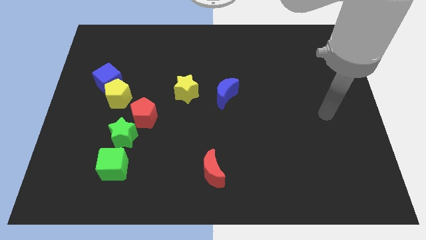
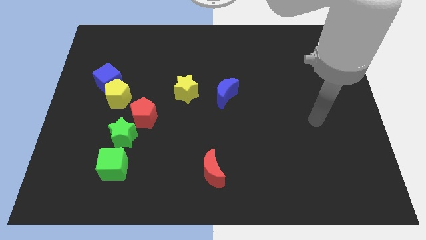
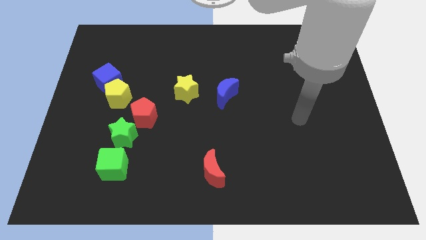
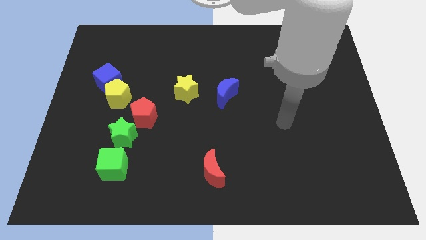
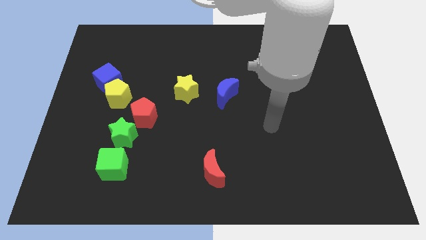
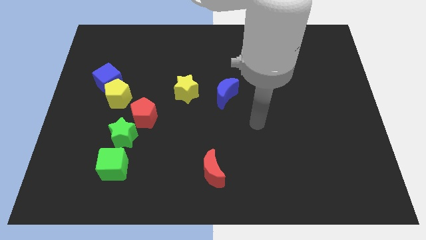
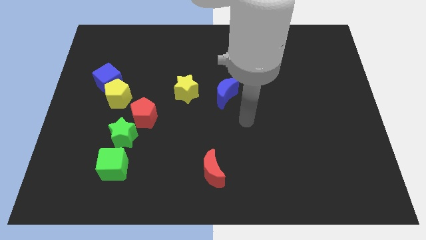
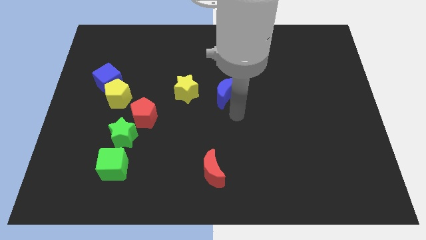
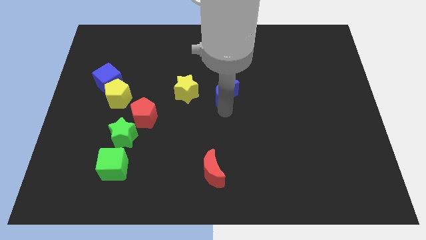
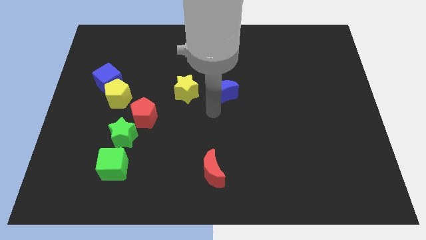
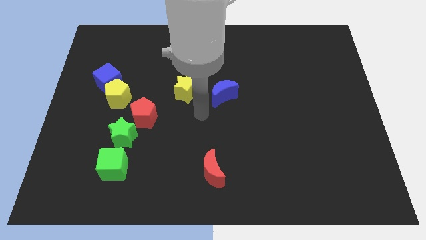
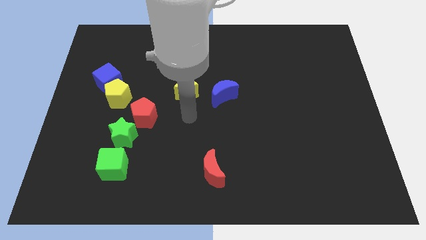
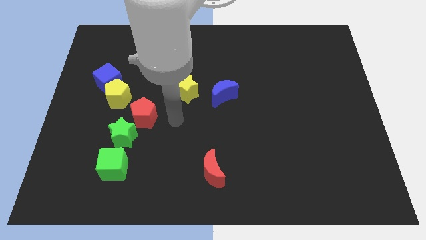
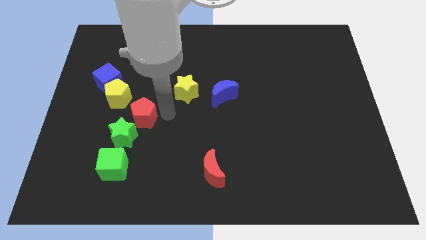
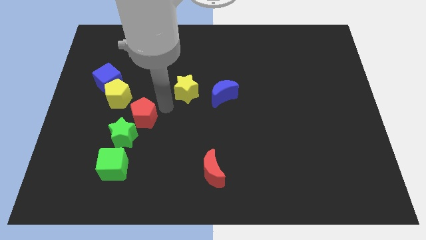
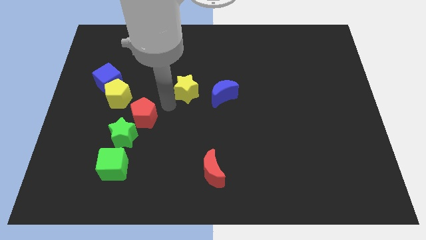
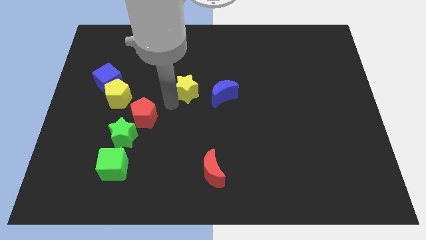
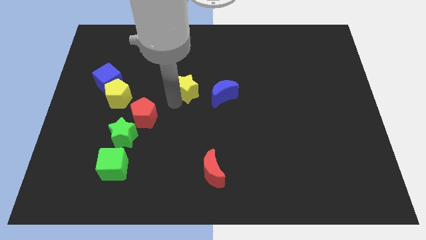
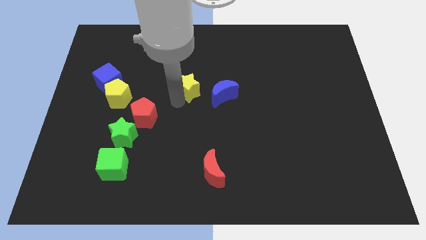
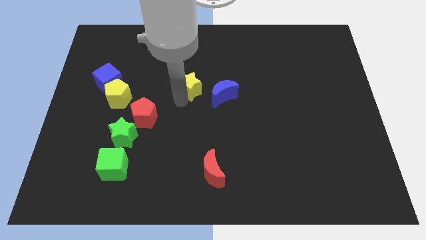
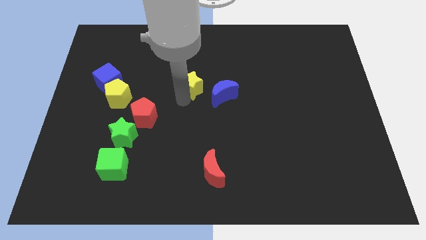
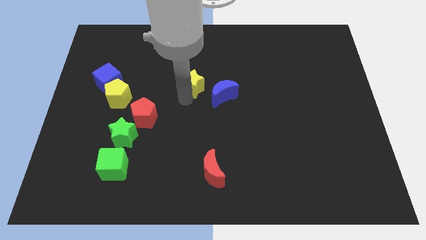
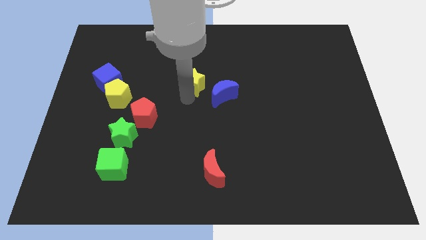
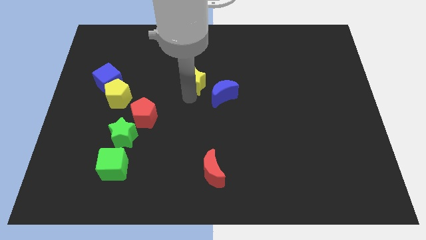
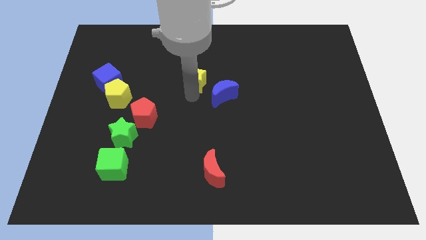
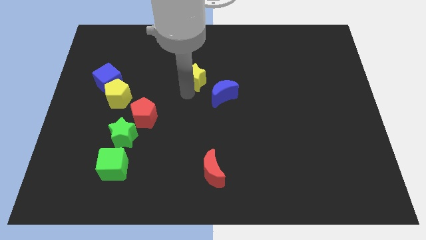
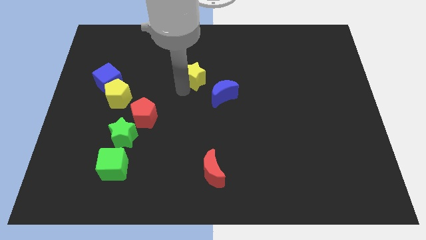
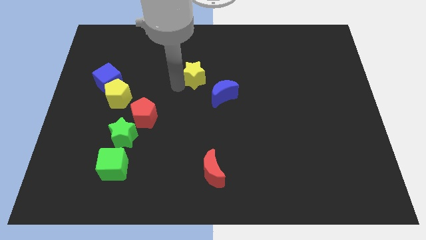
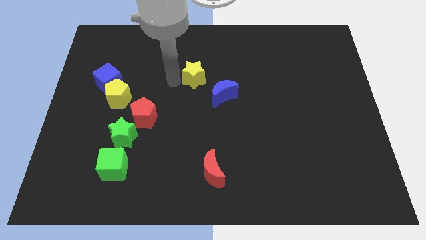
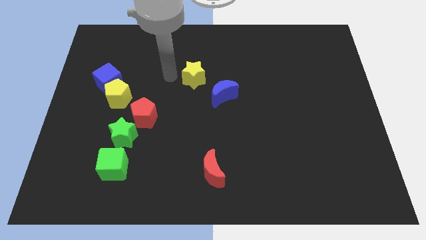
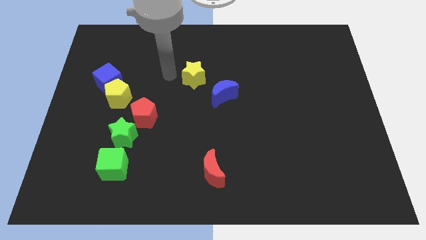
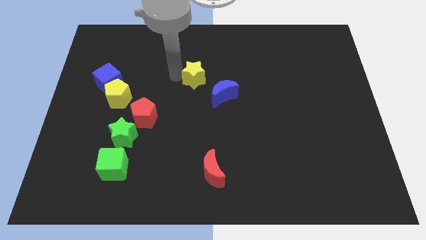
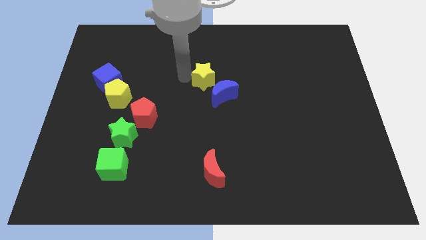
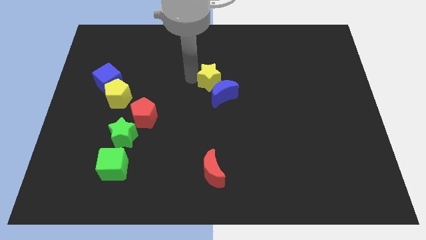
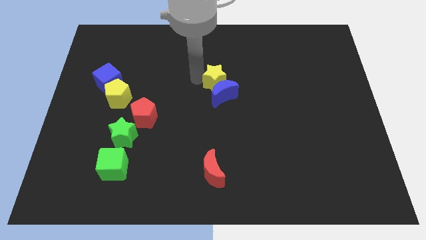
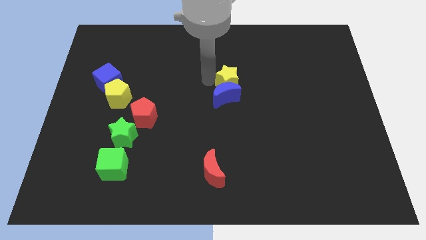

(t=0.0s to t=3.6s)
move the yellow star to the right a bit

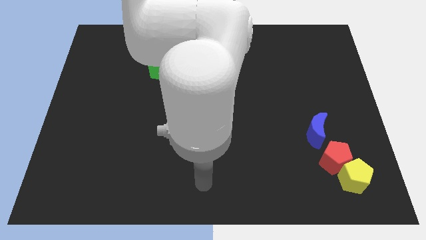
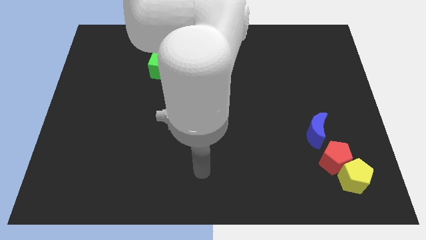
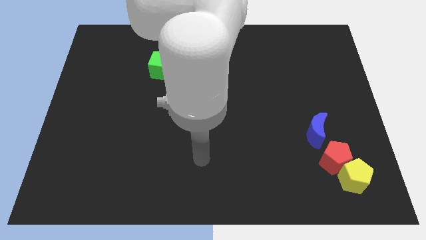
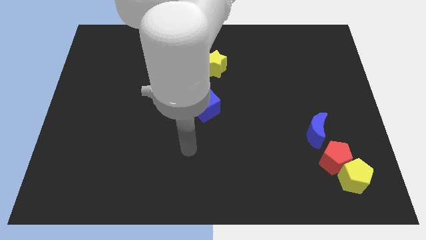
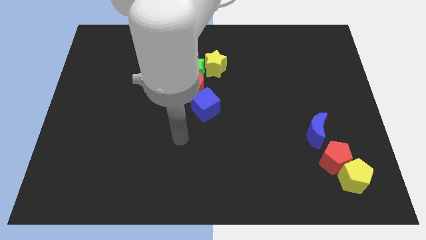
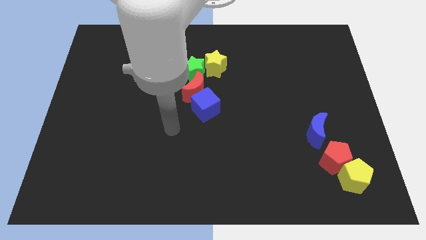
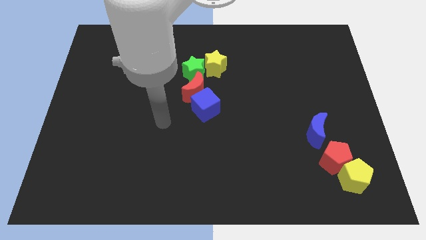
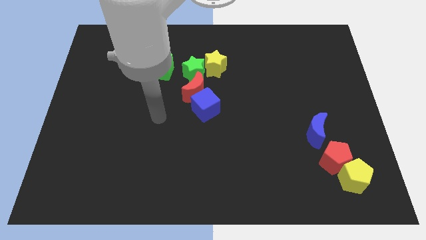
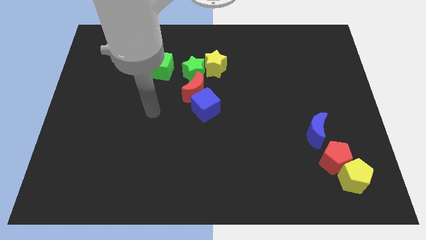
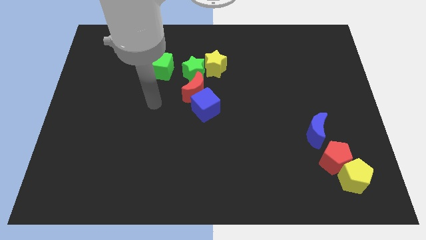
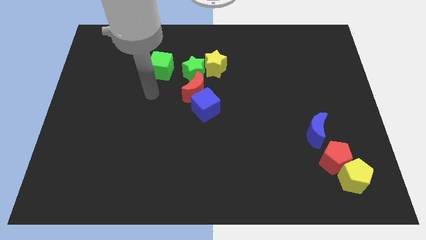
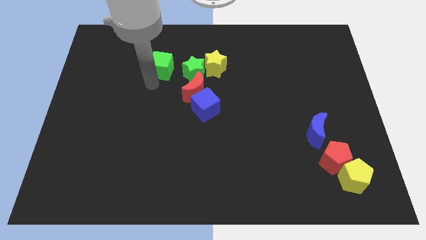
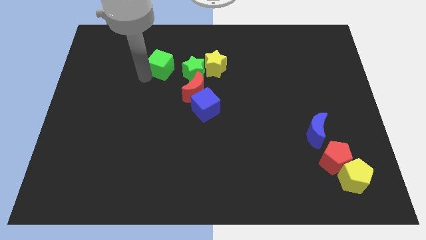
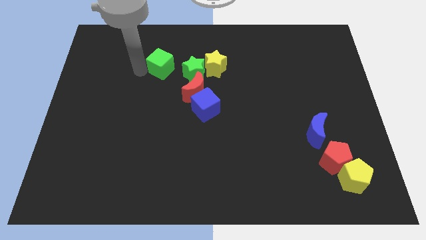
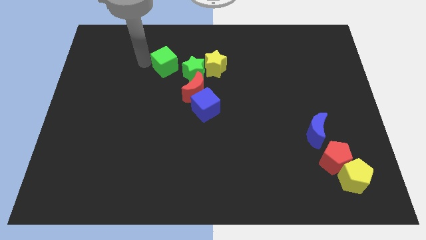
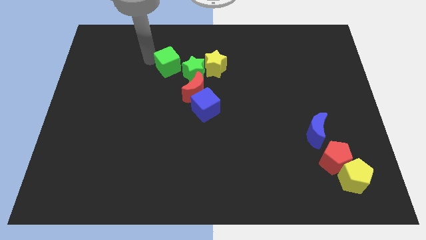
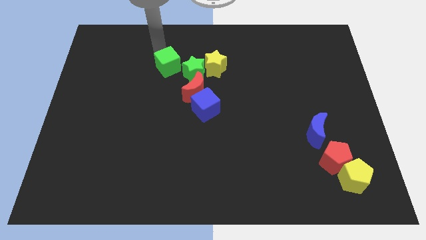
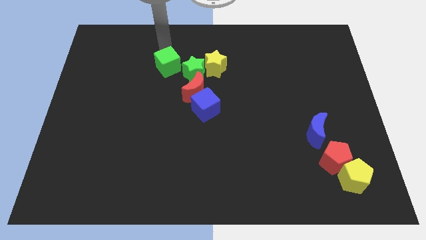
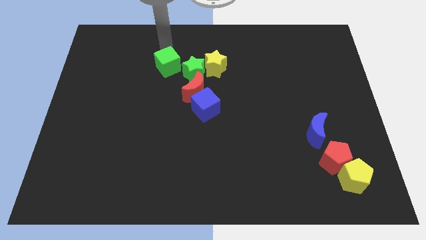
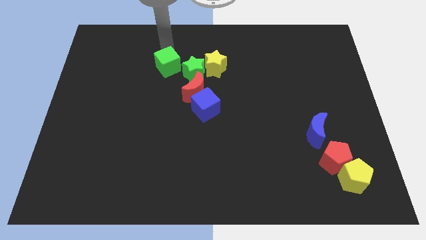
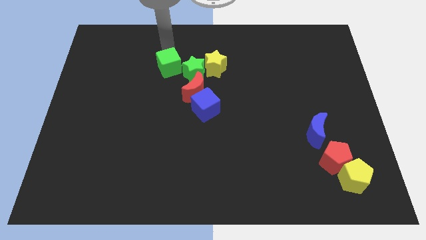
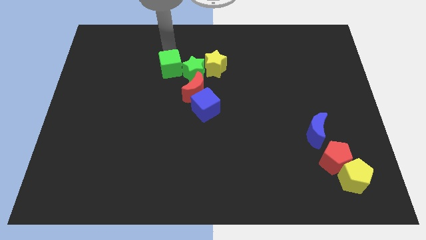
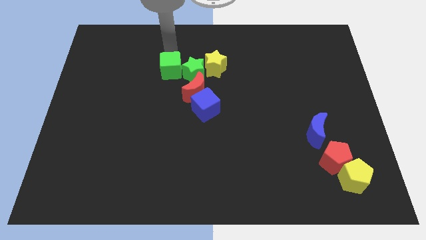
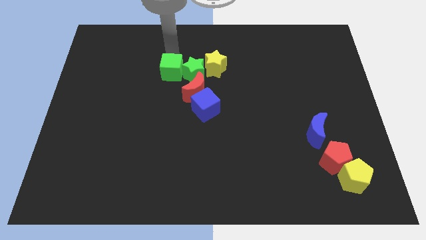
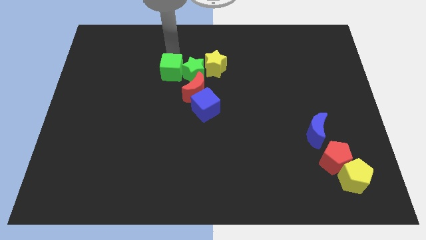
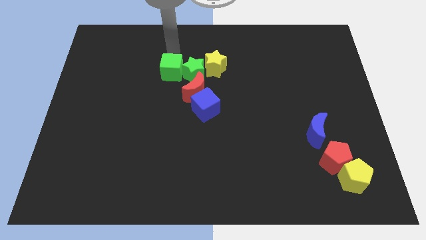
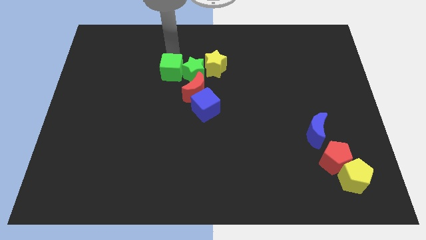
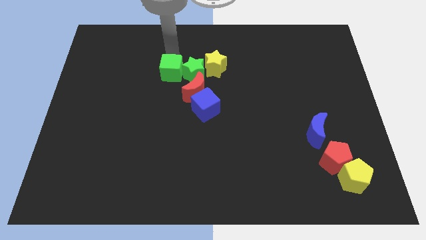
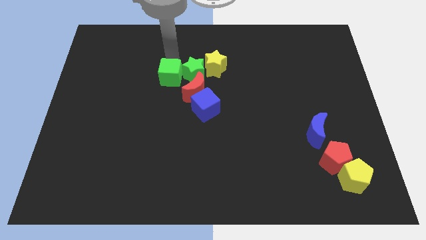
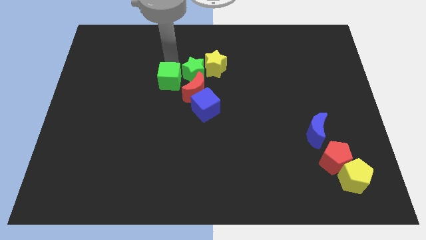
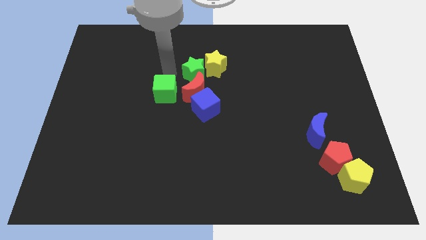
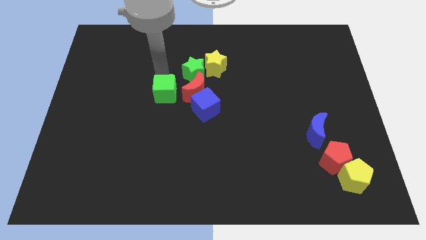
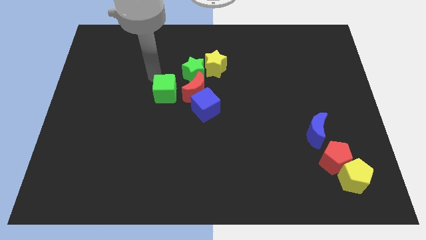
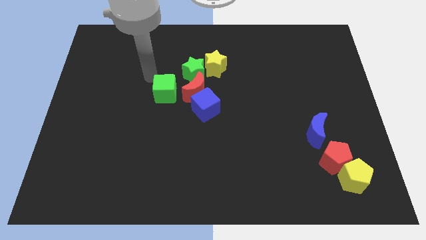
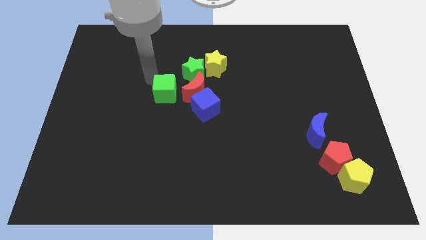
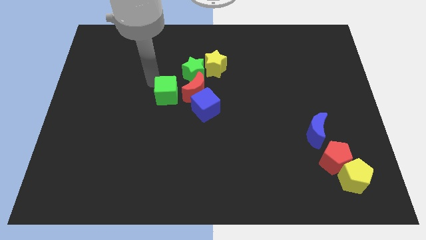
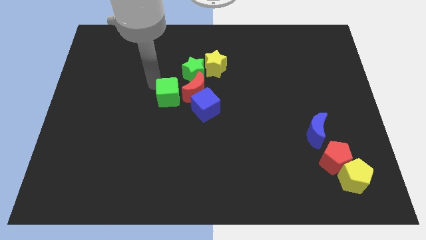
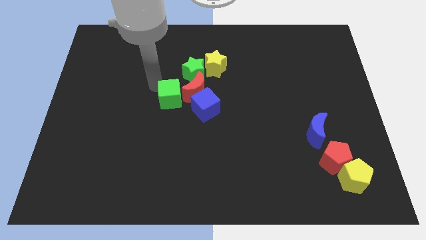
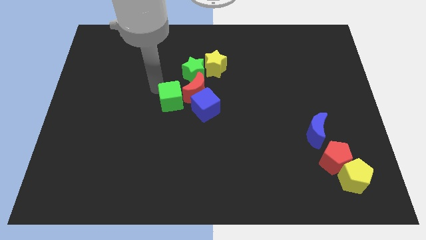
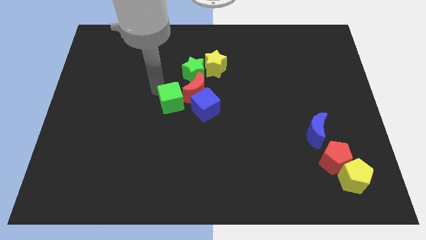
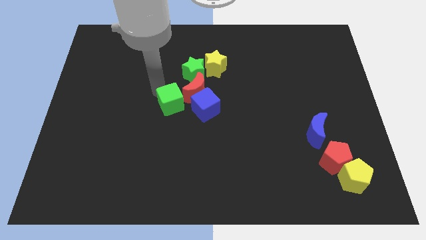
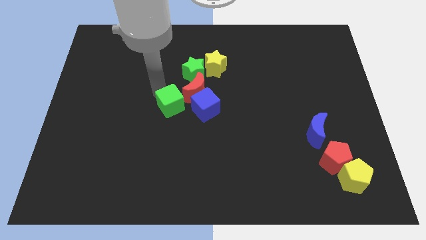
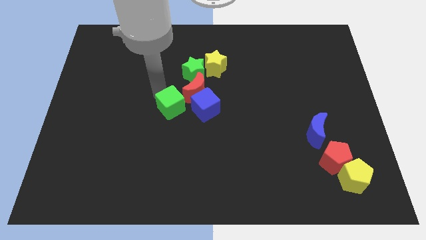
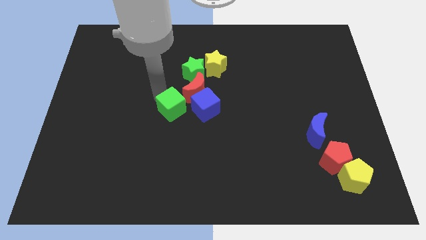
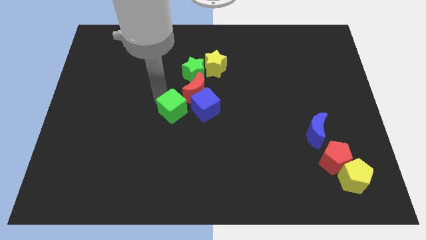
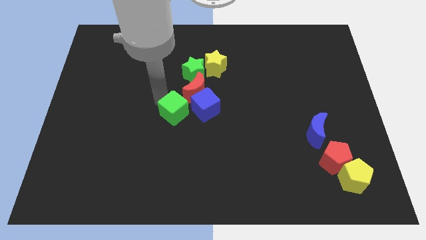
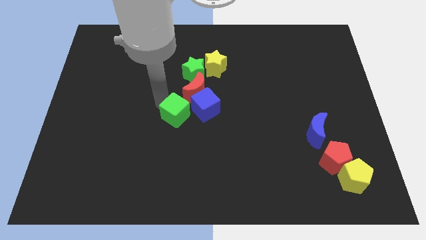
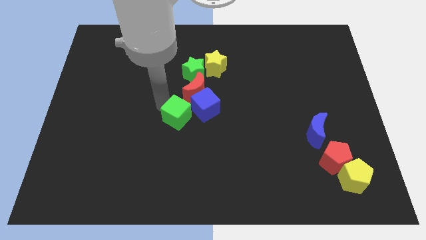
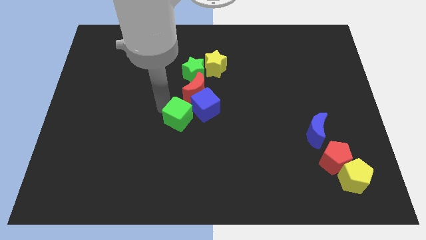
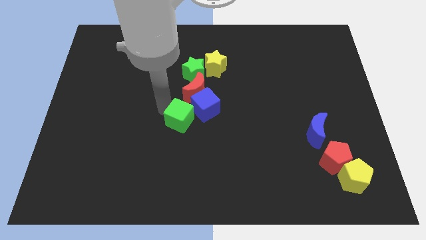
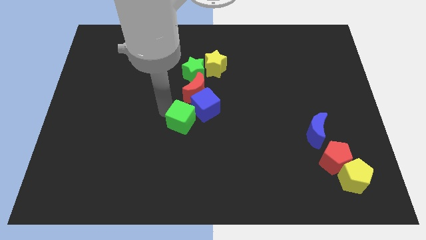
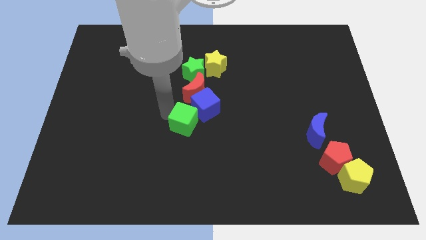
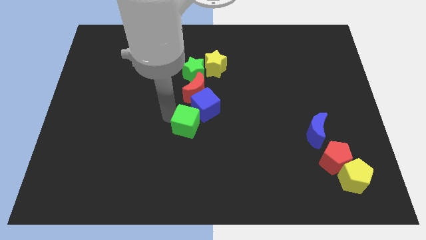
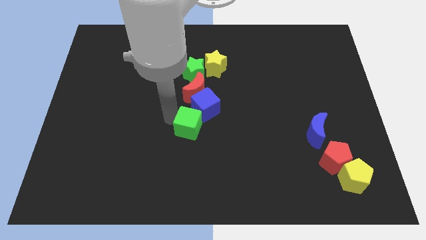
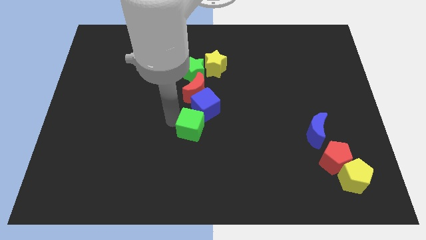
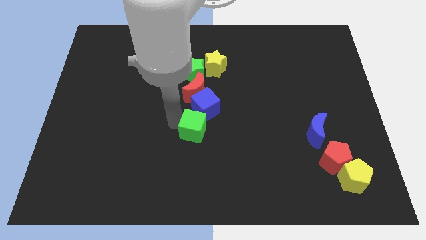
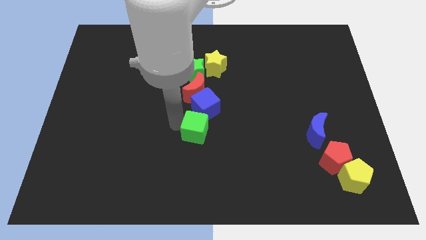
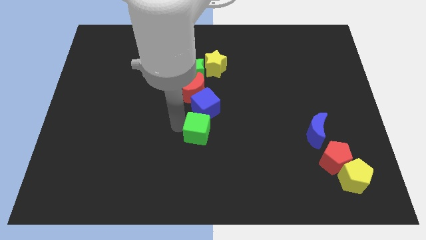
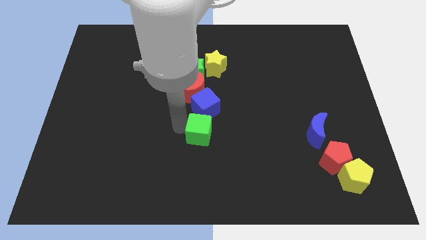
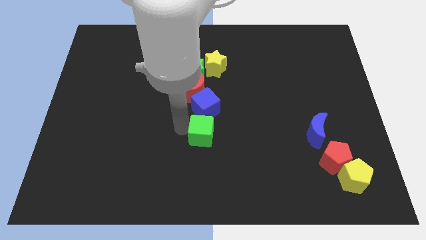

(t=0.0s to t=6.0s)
slide the green cube down and right diagonally
